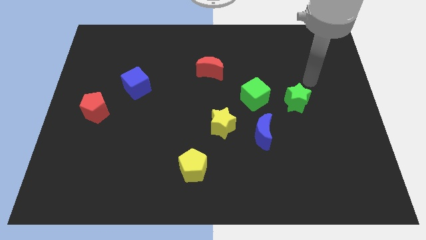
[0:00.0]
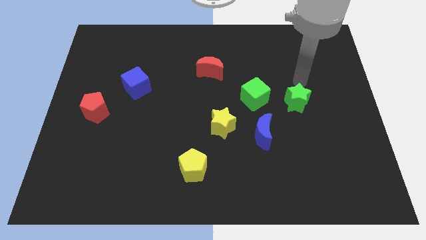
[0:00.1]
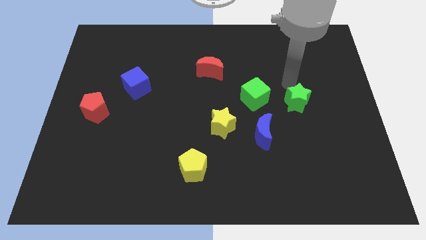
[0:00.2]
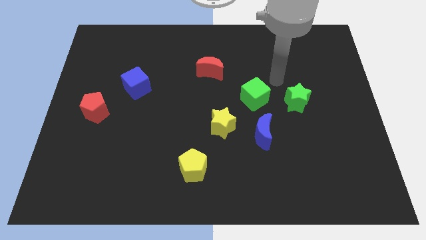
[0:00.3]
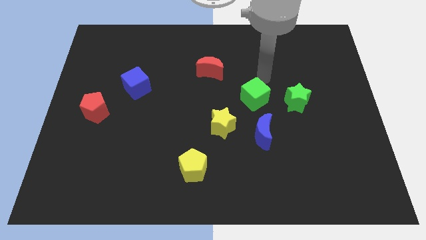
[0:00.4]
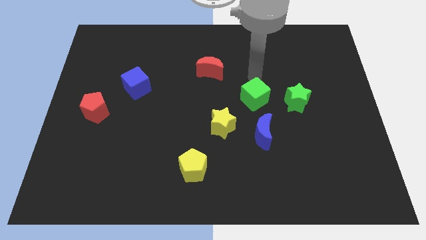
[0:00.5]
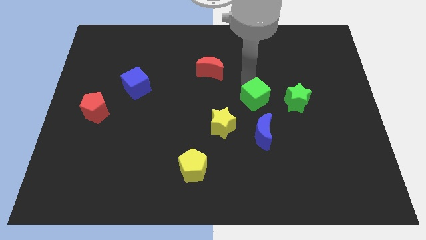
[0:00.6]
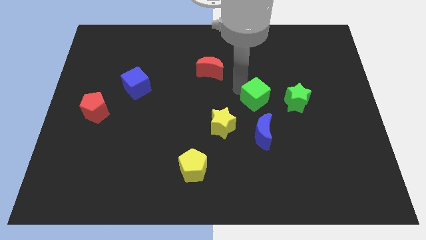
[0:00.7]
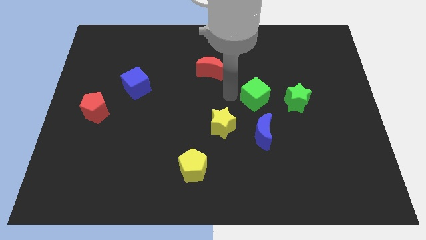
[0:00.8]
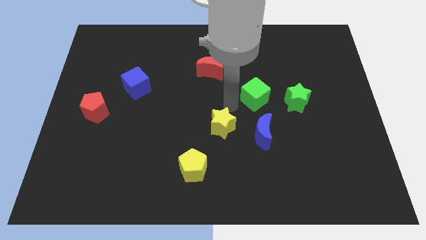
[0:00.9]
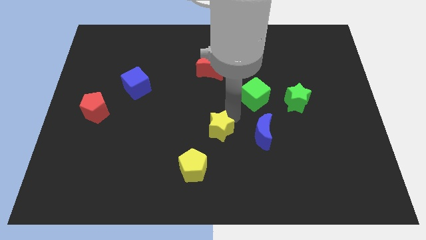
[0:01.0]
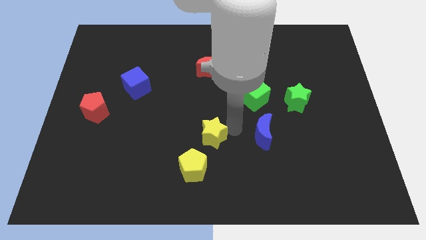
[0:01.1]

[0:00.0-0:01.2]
pull the blue moon apart from the yellow star

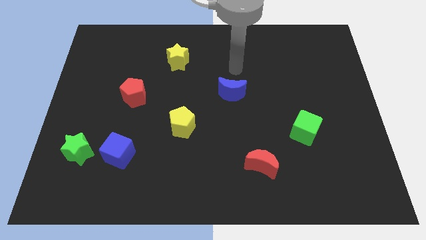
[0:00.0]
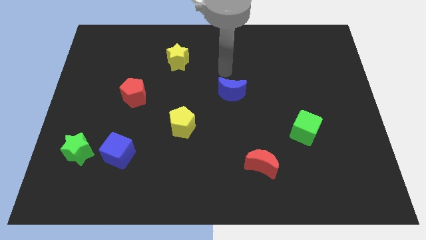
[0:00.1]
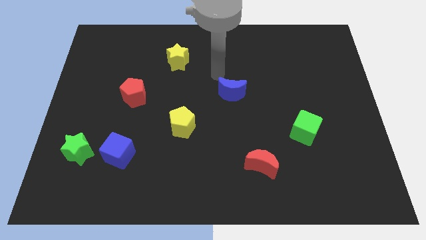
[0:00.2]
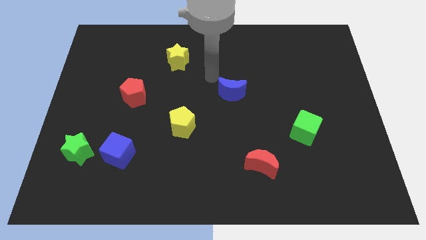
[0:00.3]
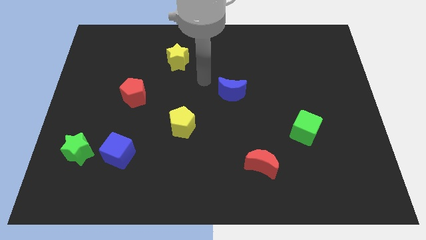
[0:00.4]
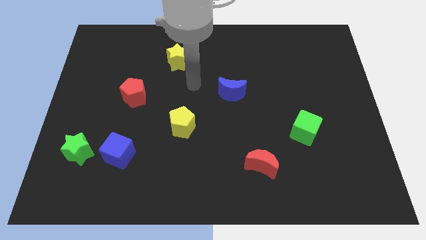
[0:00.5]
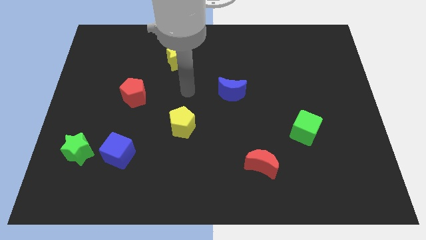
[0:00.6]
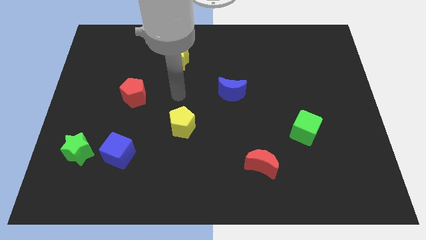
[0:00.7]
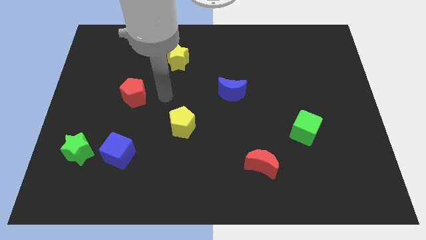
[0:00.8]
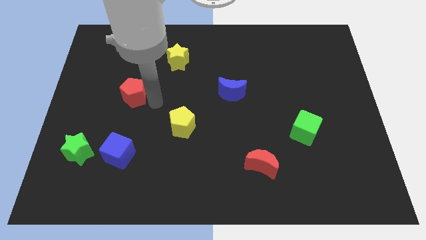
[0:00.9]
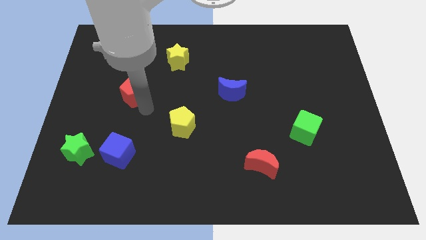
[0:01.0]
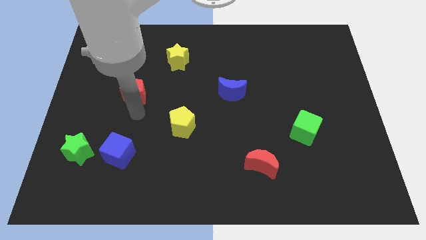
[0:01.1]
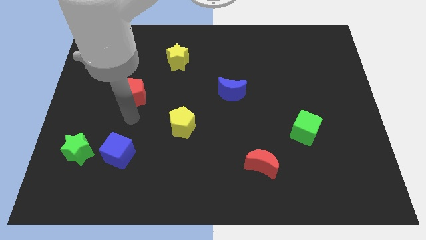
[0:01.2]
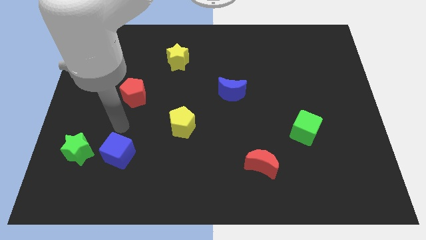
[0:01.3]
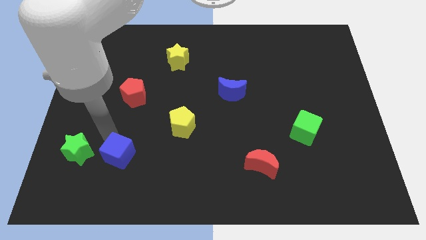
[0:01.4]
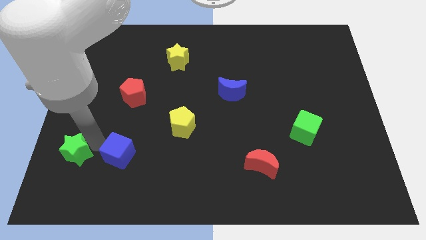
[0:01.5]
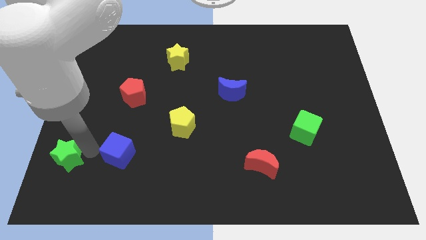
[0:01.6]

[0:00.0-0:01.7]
separate the blue cube from the green star

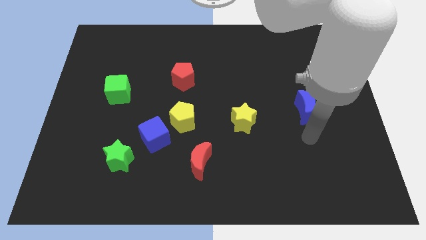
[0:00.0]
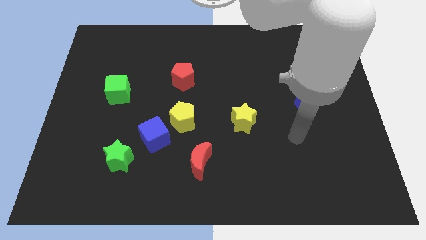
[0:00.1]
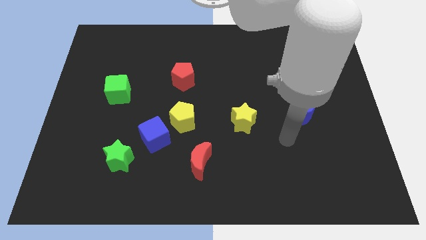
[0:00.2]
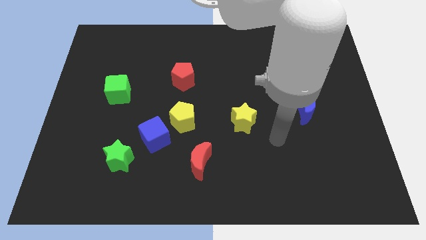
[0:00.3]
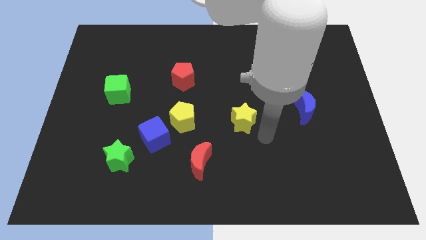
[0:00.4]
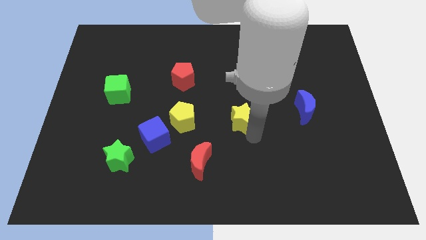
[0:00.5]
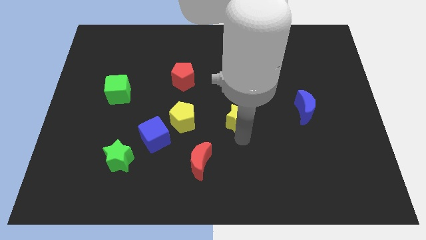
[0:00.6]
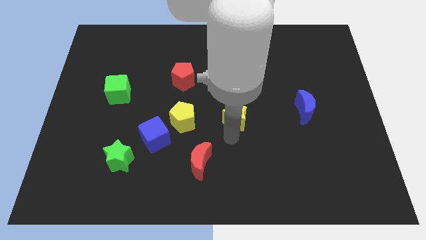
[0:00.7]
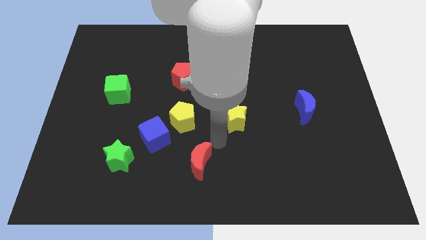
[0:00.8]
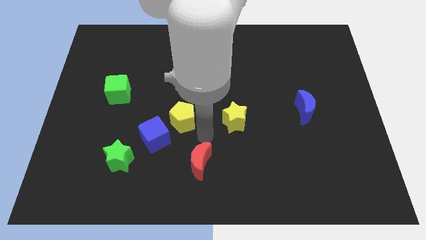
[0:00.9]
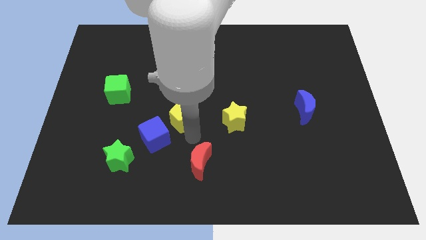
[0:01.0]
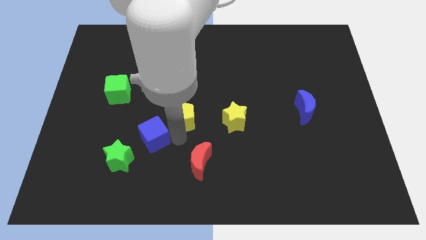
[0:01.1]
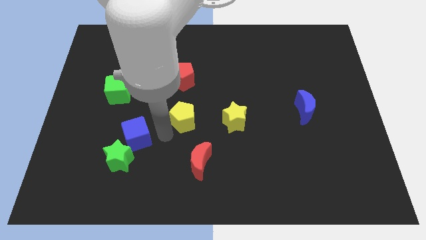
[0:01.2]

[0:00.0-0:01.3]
separate the yellow pentagon from the blue cube

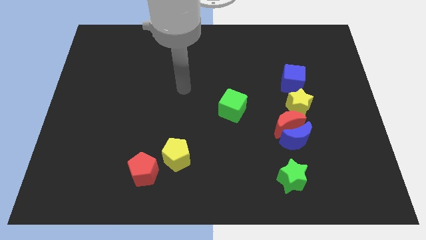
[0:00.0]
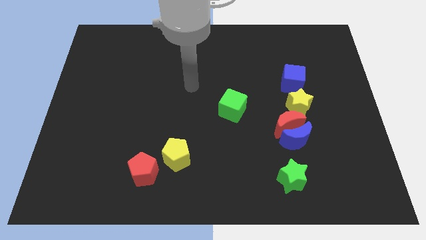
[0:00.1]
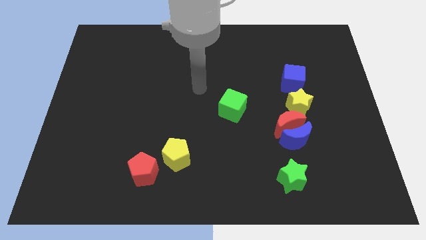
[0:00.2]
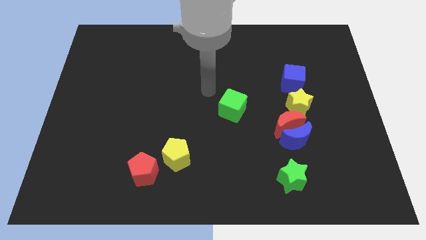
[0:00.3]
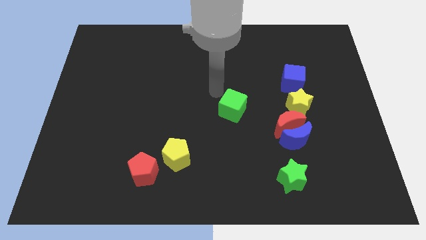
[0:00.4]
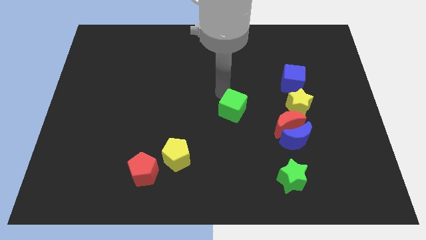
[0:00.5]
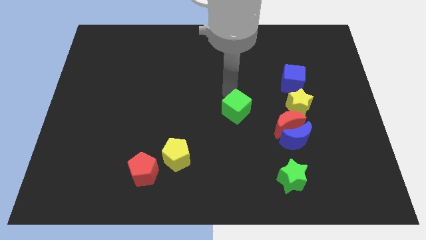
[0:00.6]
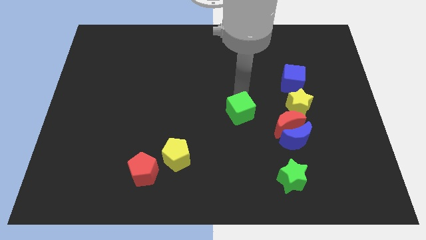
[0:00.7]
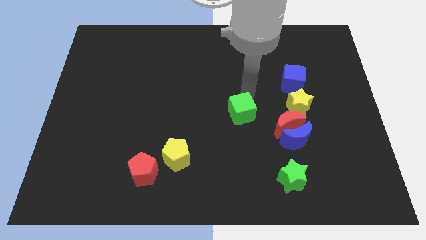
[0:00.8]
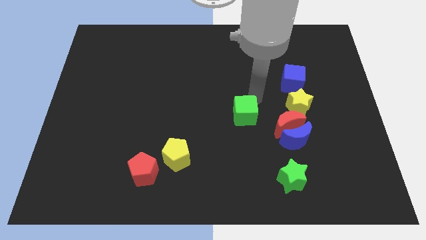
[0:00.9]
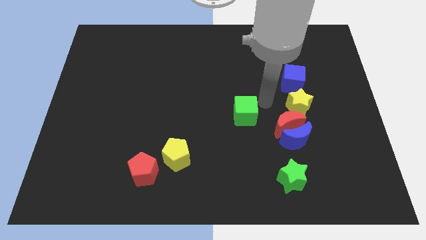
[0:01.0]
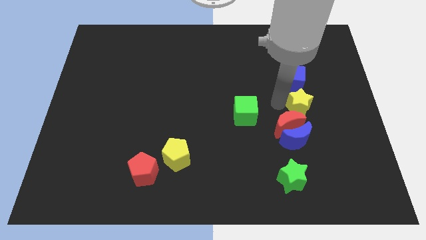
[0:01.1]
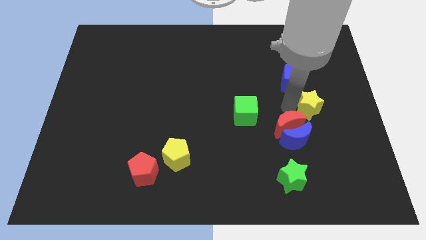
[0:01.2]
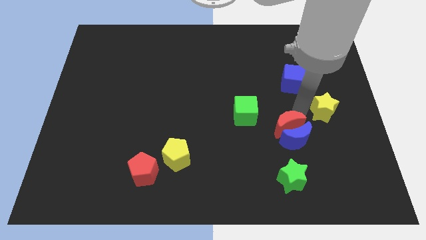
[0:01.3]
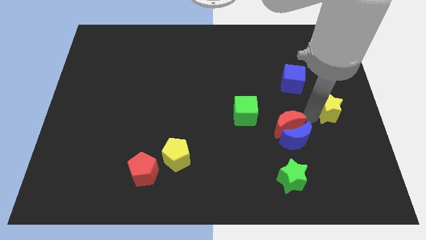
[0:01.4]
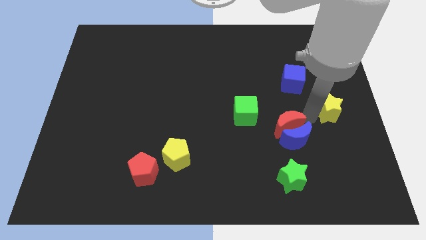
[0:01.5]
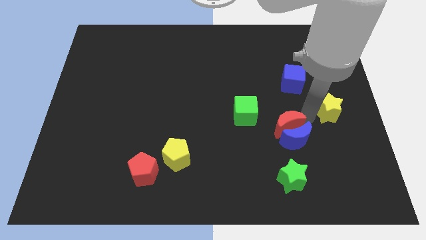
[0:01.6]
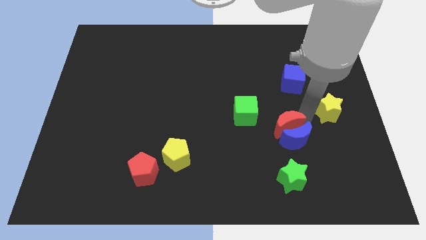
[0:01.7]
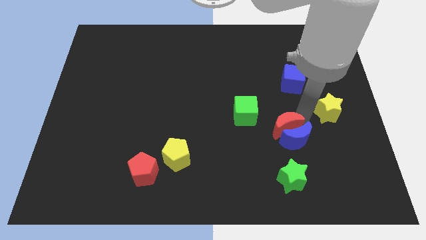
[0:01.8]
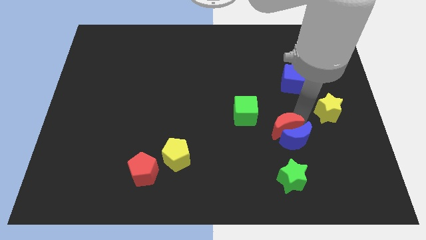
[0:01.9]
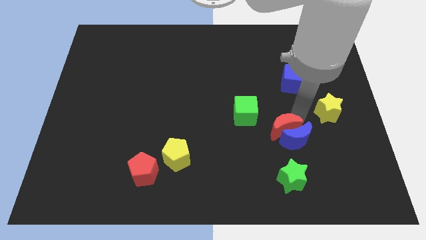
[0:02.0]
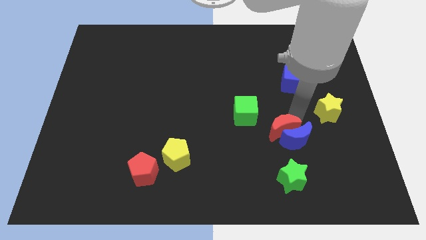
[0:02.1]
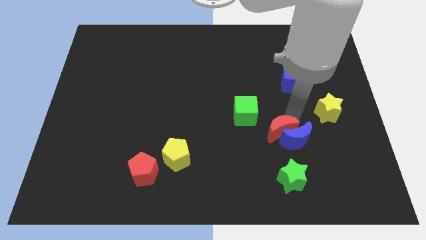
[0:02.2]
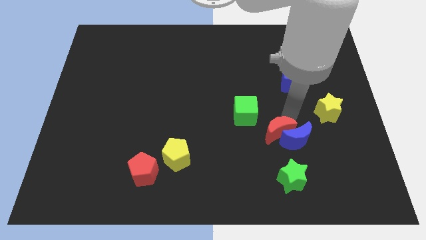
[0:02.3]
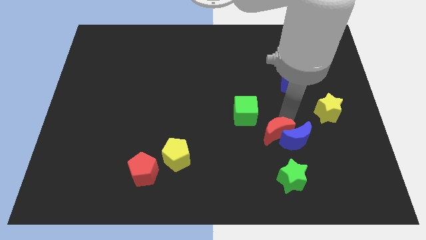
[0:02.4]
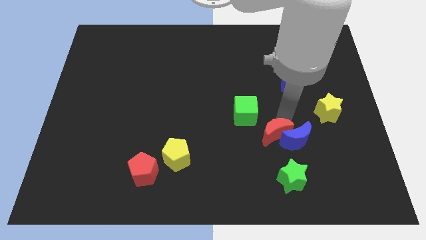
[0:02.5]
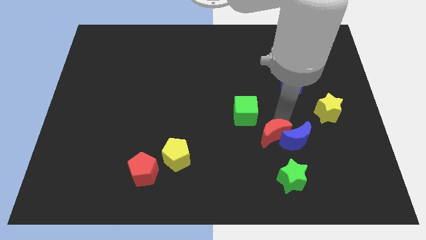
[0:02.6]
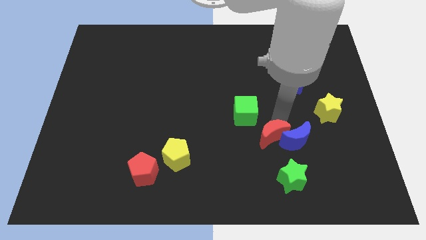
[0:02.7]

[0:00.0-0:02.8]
separate the red moon from the blue moon and yellow star

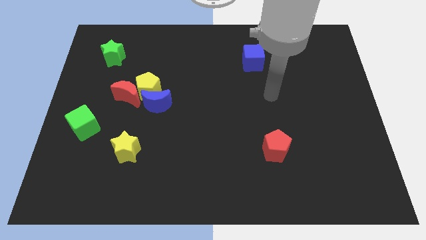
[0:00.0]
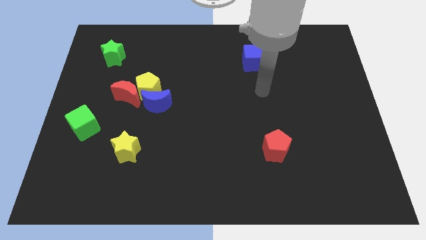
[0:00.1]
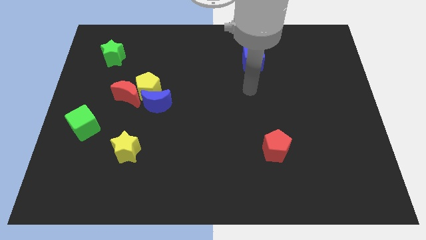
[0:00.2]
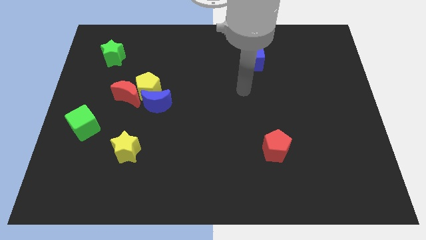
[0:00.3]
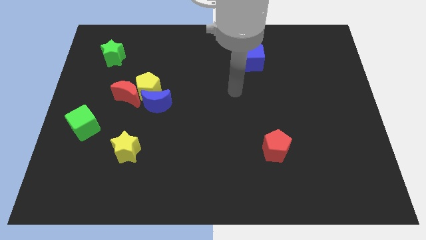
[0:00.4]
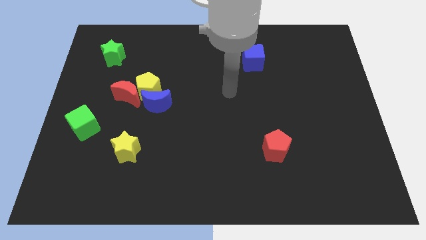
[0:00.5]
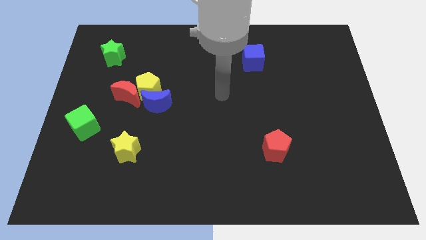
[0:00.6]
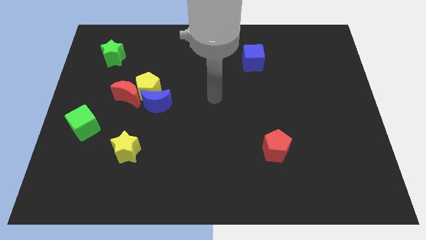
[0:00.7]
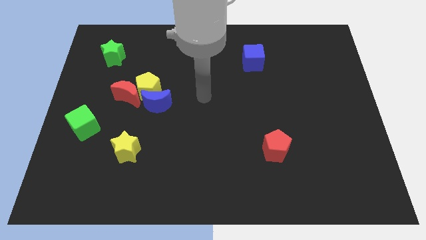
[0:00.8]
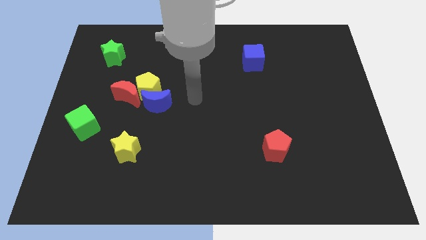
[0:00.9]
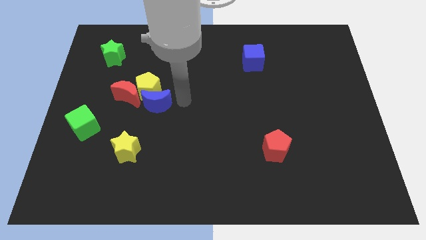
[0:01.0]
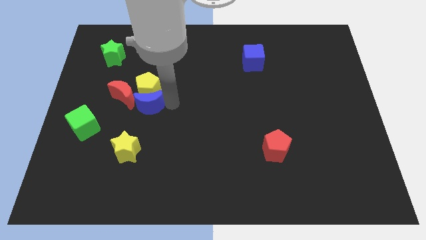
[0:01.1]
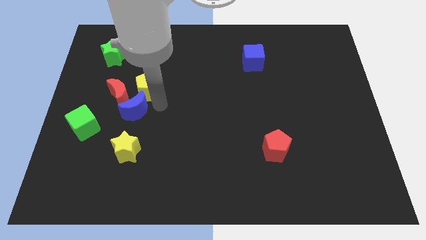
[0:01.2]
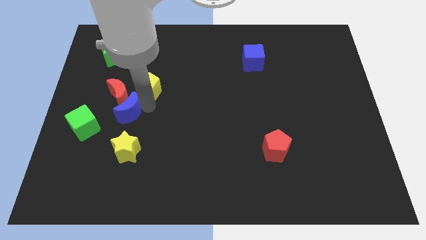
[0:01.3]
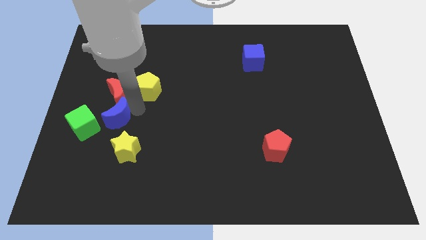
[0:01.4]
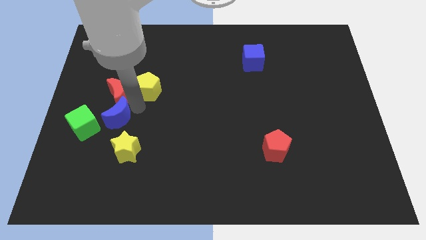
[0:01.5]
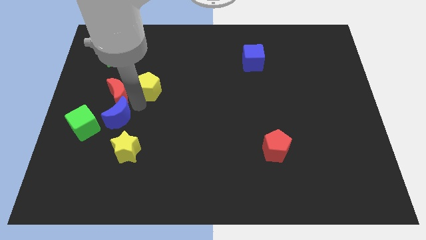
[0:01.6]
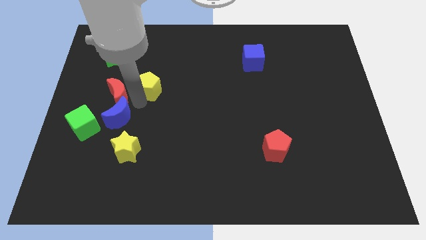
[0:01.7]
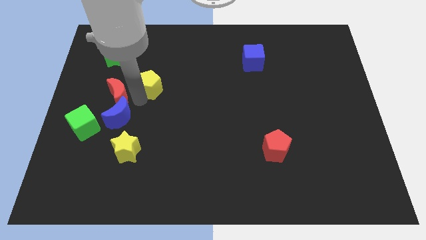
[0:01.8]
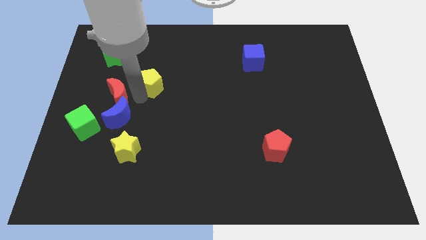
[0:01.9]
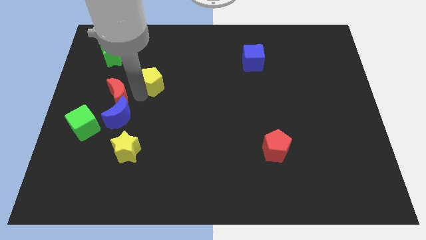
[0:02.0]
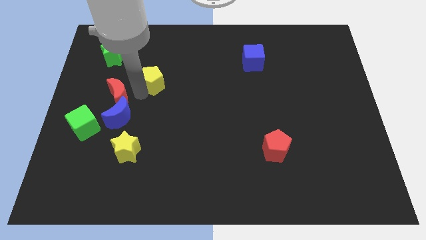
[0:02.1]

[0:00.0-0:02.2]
move the yellow pentagon away from the blue moon and red moon
